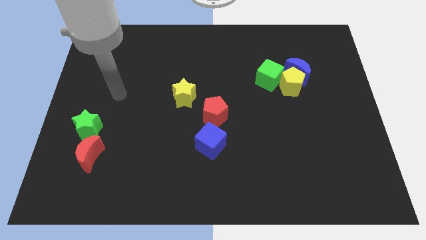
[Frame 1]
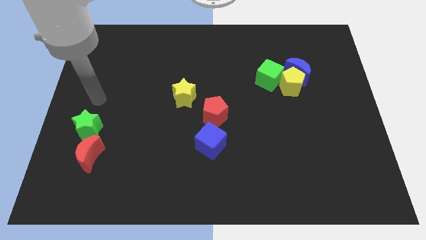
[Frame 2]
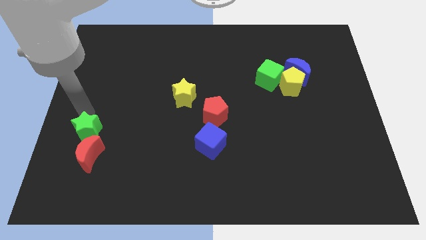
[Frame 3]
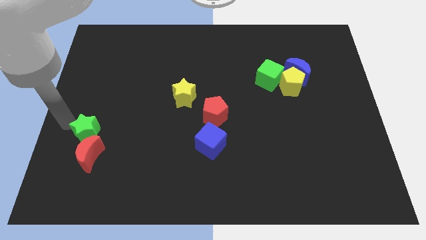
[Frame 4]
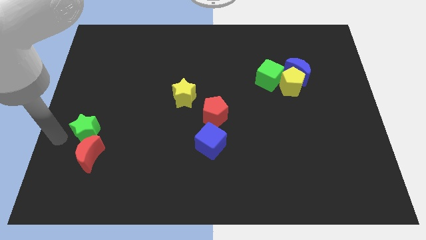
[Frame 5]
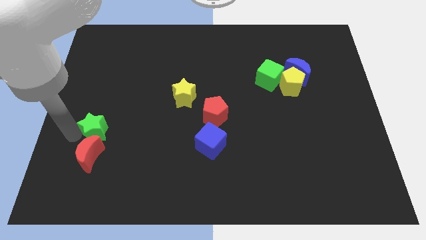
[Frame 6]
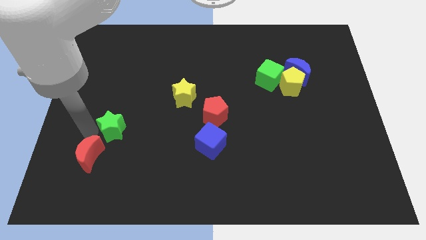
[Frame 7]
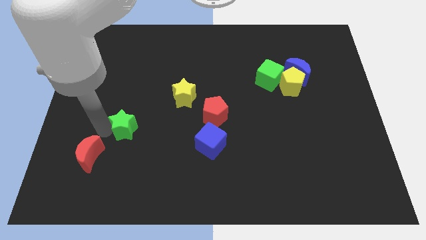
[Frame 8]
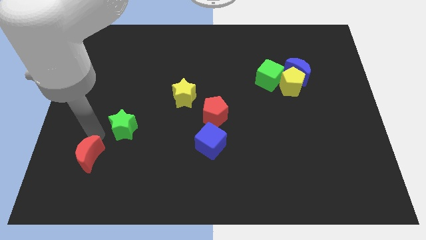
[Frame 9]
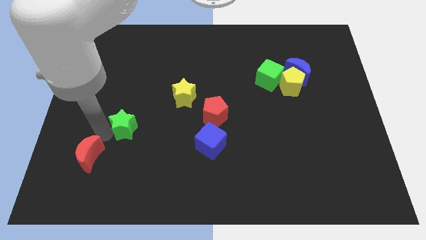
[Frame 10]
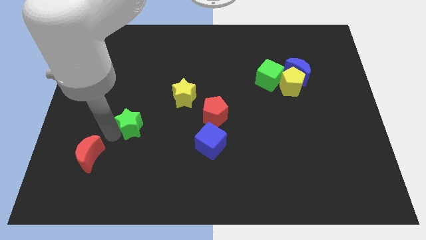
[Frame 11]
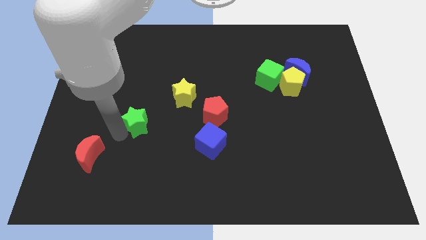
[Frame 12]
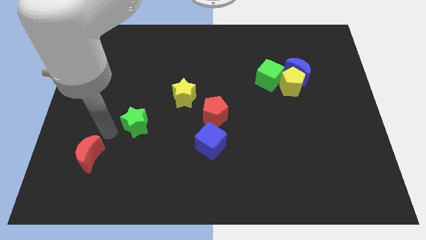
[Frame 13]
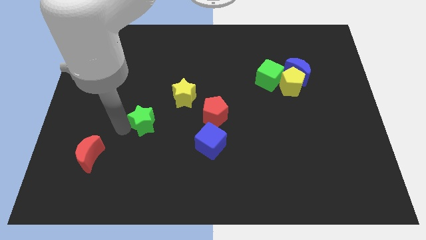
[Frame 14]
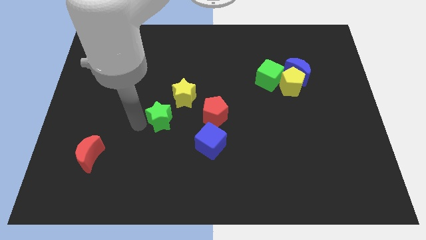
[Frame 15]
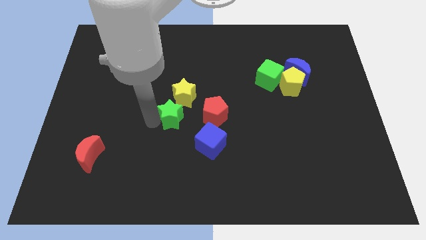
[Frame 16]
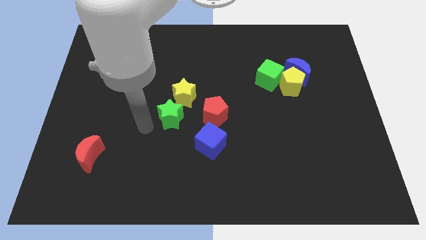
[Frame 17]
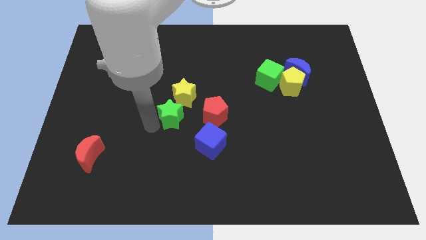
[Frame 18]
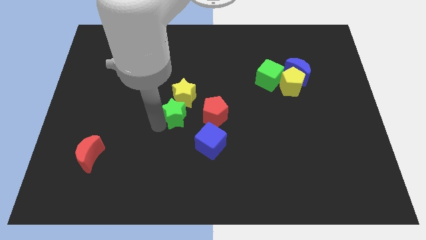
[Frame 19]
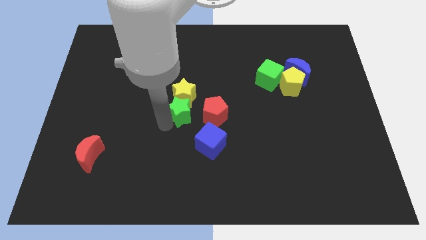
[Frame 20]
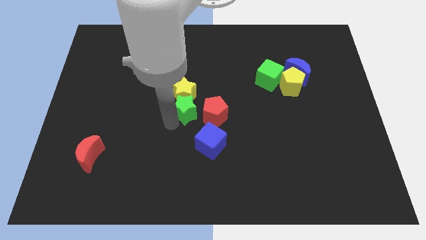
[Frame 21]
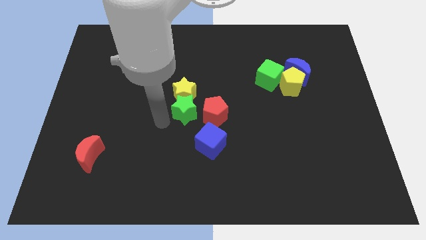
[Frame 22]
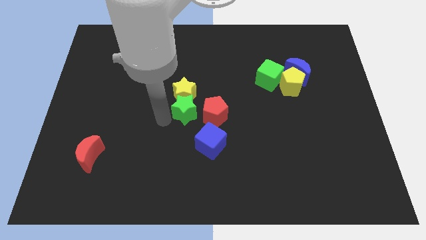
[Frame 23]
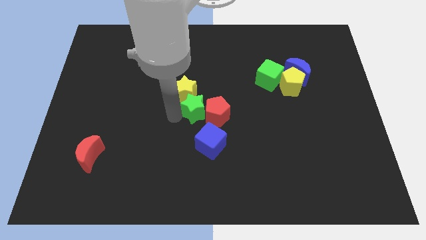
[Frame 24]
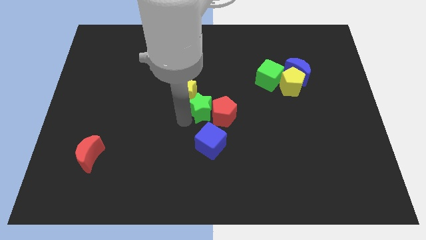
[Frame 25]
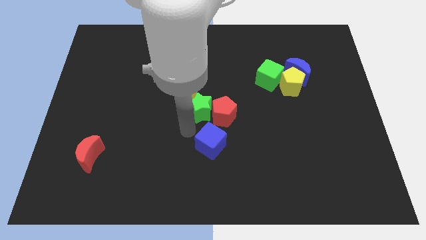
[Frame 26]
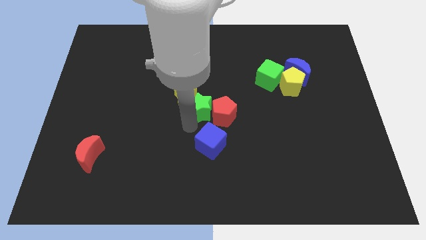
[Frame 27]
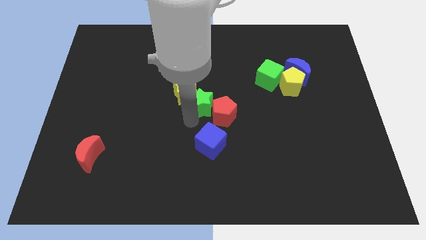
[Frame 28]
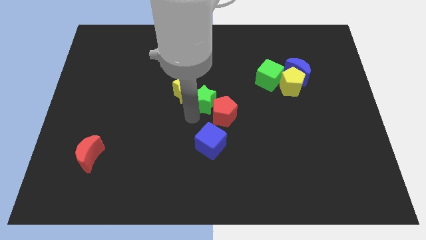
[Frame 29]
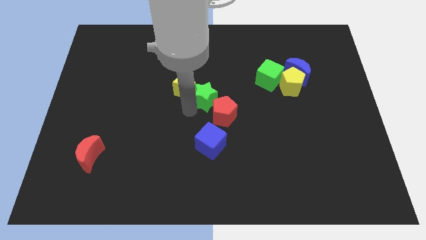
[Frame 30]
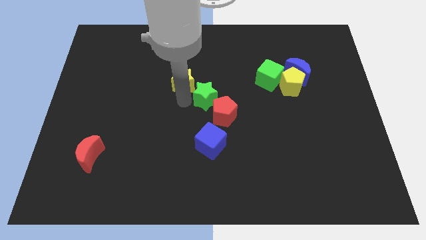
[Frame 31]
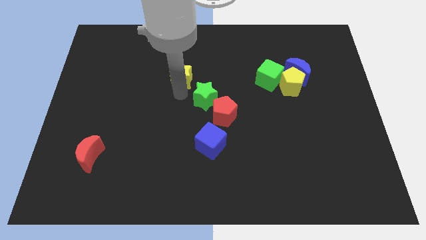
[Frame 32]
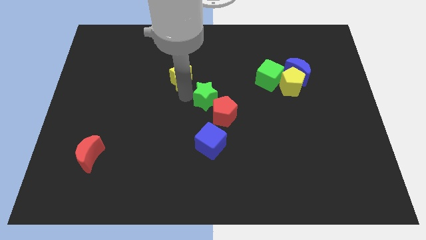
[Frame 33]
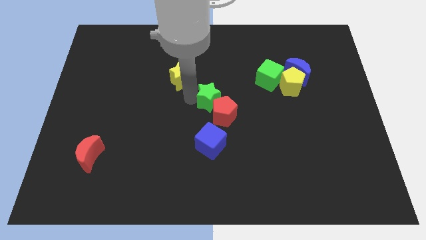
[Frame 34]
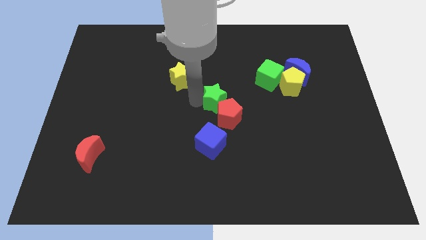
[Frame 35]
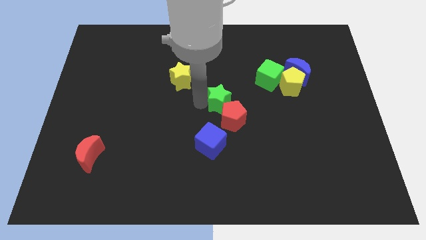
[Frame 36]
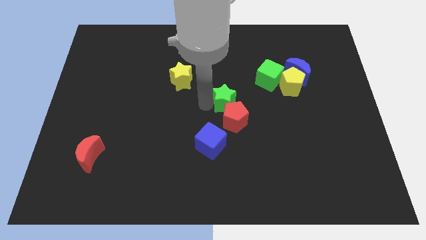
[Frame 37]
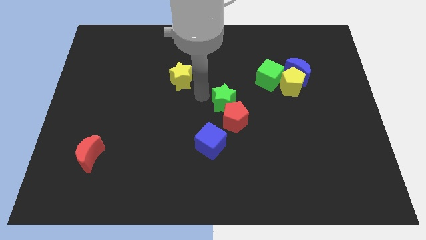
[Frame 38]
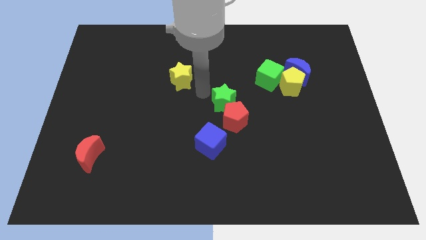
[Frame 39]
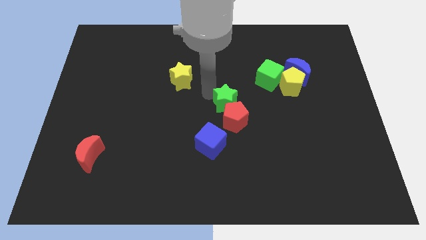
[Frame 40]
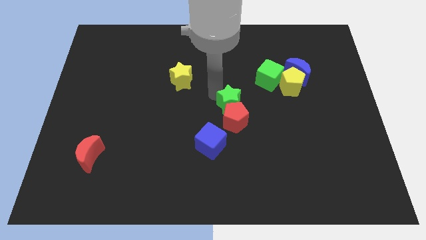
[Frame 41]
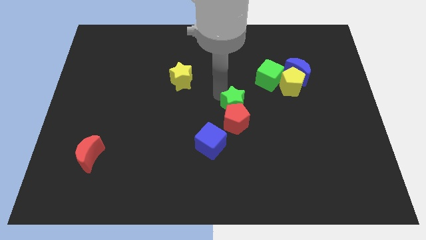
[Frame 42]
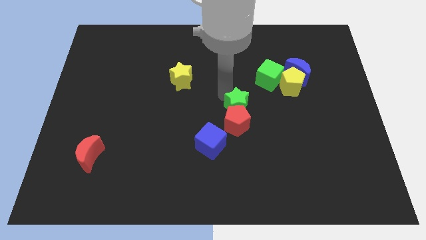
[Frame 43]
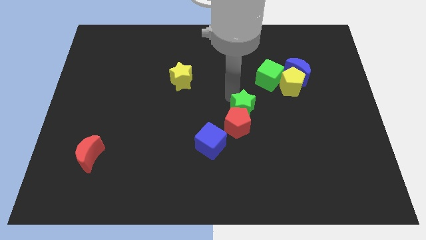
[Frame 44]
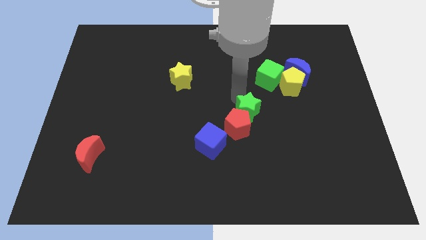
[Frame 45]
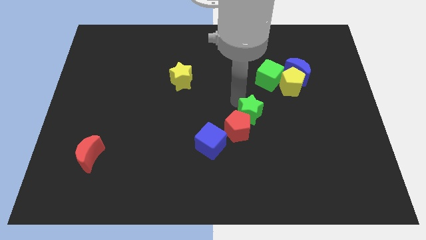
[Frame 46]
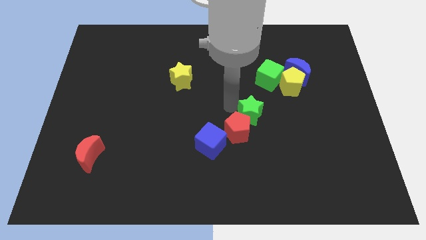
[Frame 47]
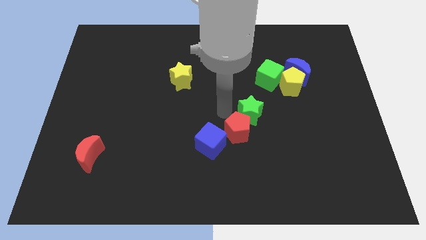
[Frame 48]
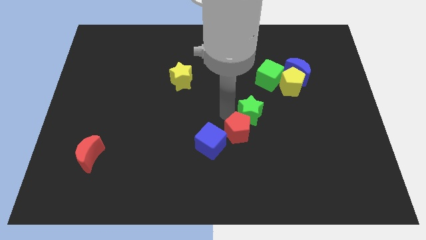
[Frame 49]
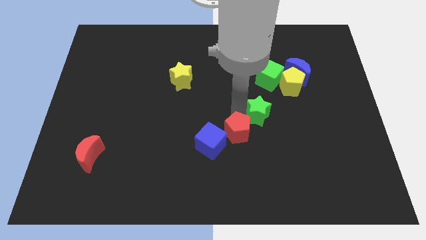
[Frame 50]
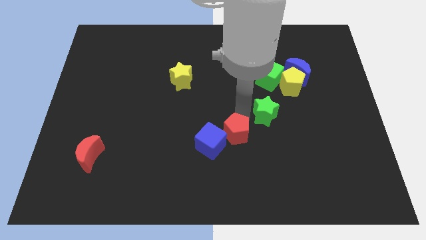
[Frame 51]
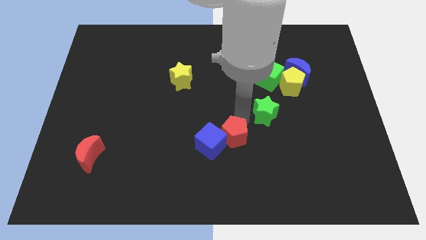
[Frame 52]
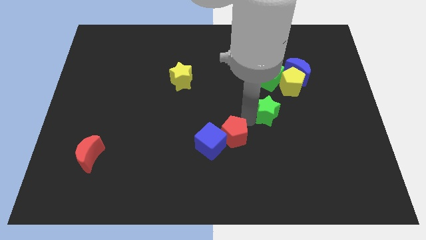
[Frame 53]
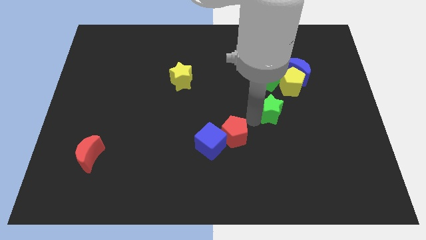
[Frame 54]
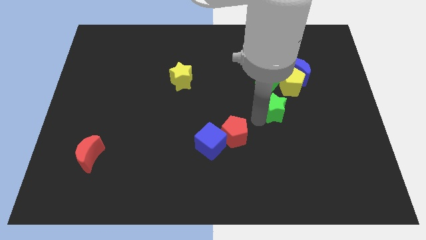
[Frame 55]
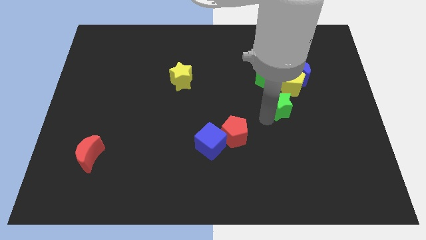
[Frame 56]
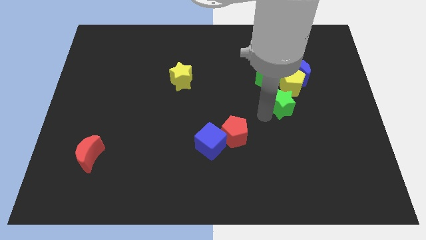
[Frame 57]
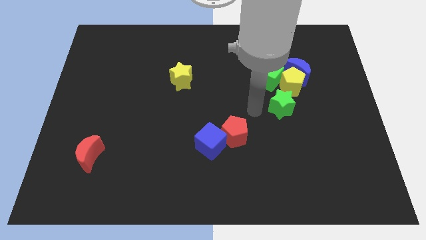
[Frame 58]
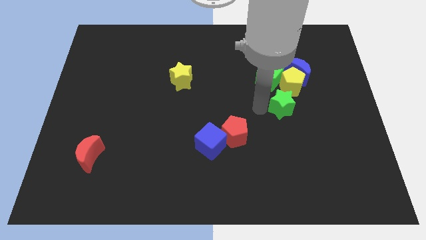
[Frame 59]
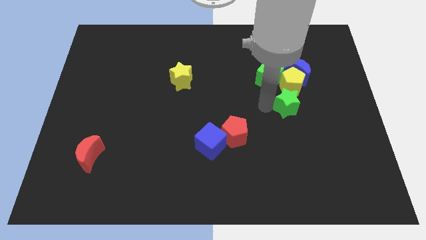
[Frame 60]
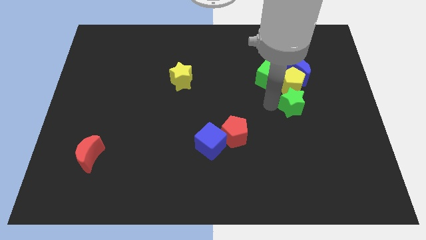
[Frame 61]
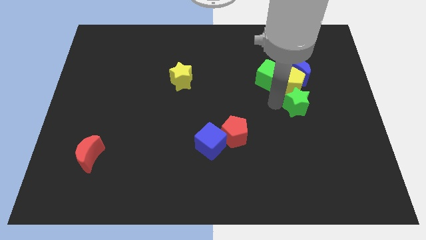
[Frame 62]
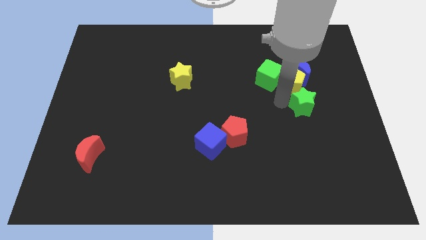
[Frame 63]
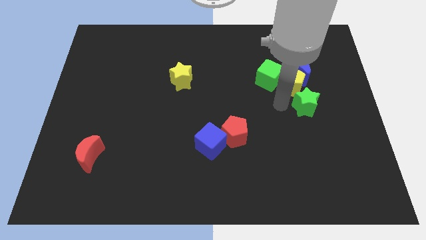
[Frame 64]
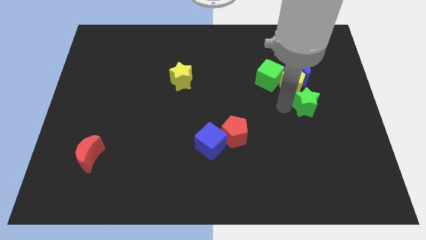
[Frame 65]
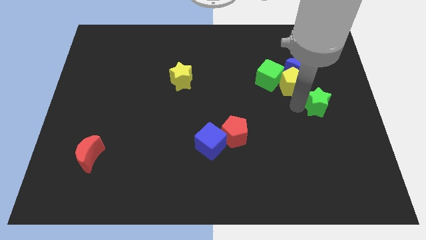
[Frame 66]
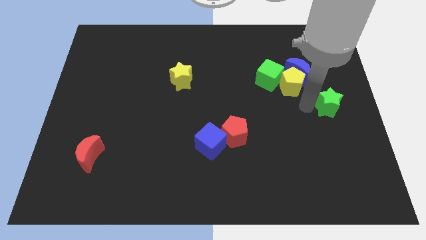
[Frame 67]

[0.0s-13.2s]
push the green star to the center right

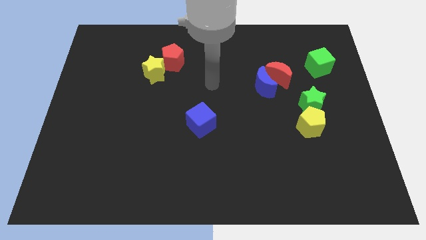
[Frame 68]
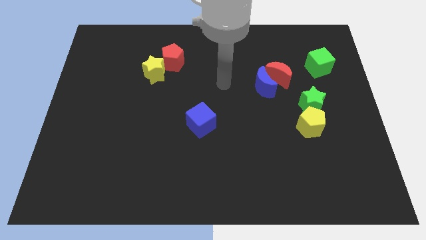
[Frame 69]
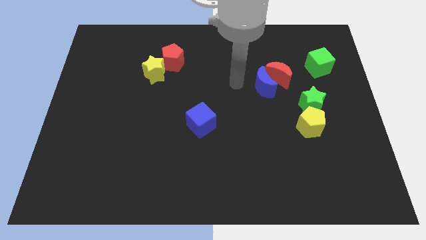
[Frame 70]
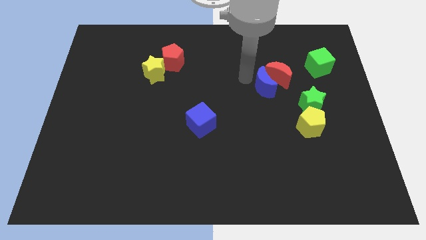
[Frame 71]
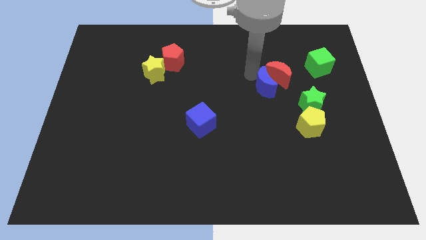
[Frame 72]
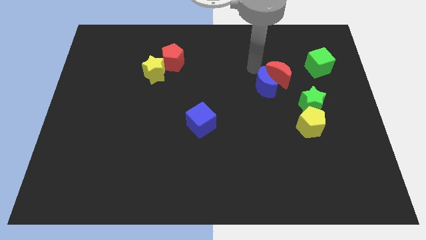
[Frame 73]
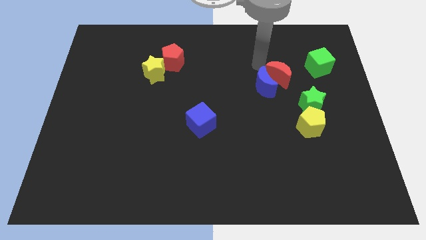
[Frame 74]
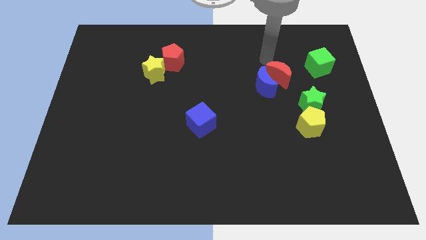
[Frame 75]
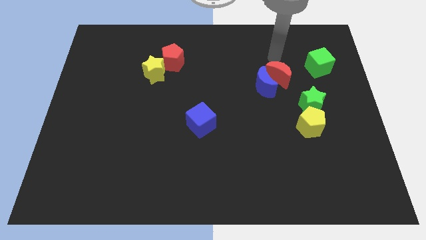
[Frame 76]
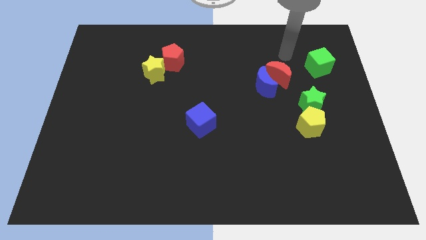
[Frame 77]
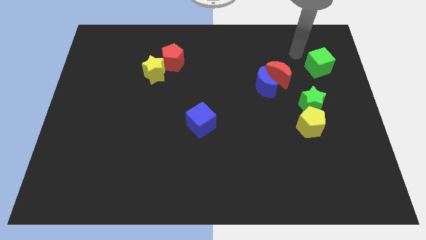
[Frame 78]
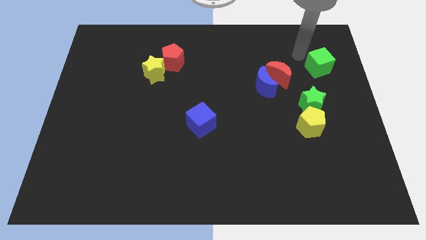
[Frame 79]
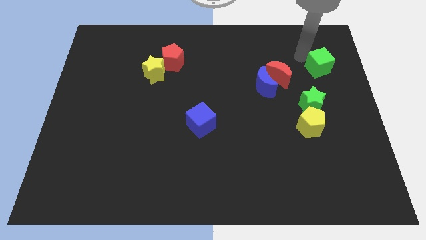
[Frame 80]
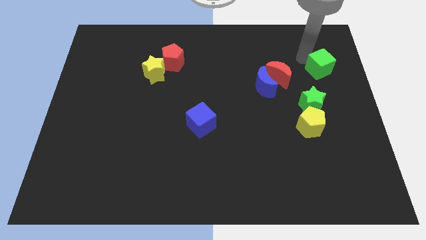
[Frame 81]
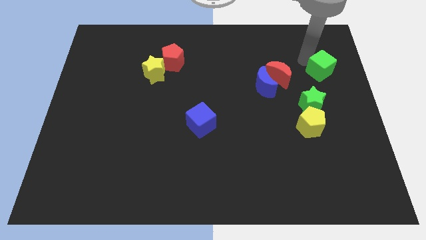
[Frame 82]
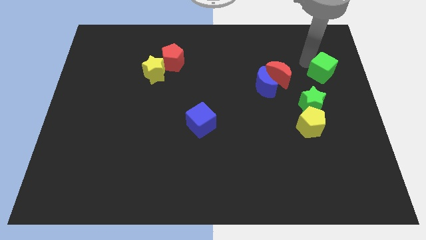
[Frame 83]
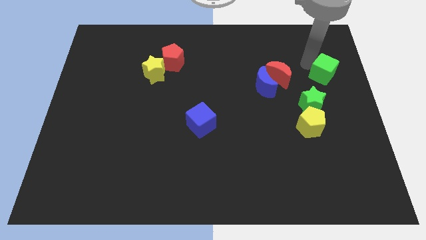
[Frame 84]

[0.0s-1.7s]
slide the green cube to the center right
